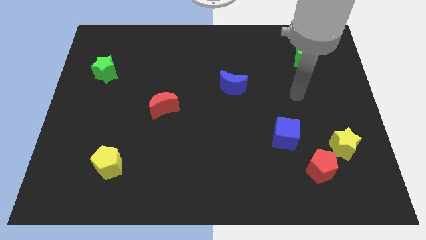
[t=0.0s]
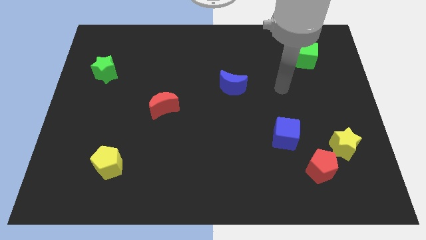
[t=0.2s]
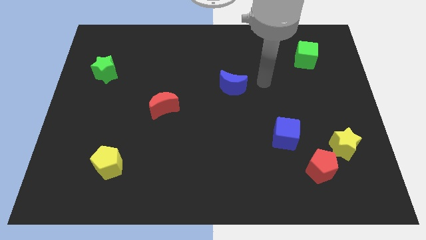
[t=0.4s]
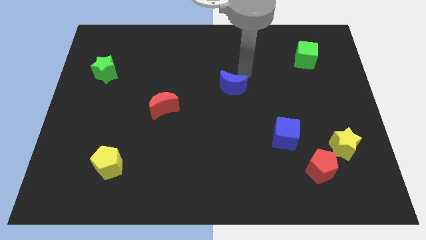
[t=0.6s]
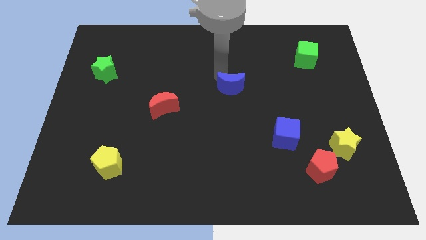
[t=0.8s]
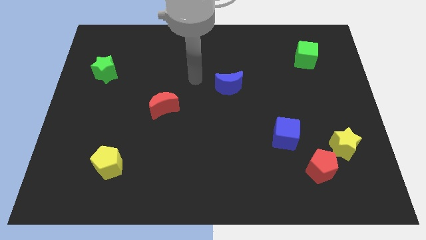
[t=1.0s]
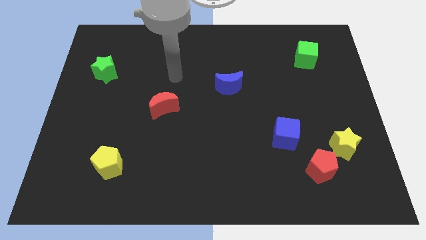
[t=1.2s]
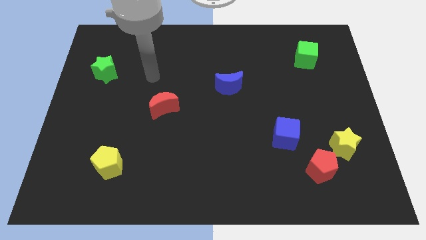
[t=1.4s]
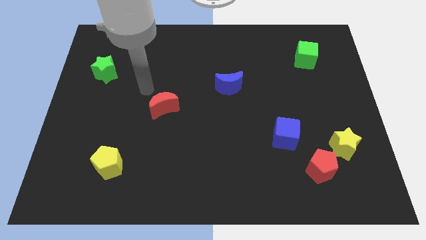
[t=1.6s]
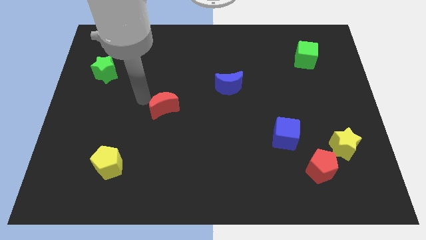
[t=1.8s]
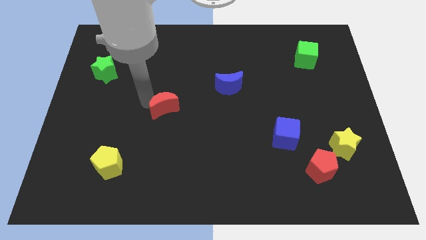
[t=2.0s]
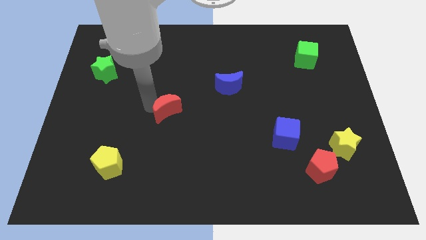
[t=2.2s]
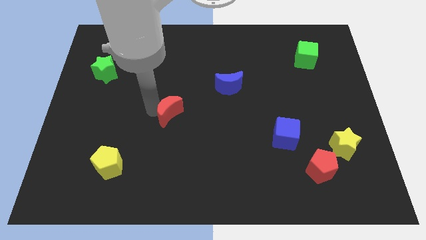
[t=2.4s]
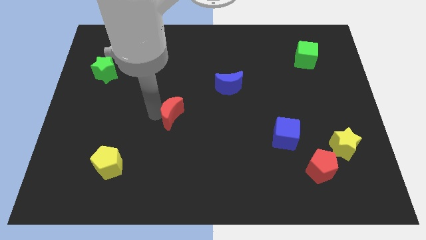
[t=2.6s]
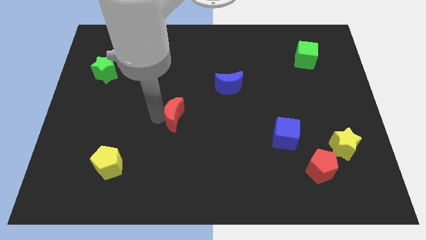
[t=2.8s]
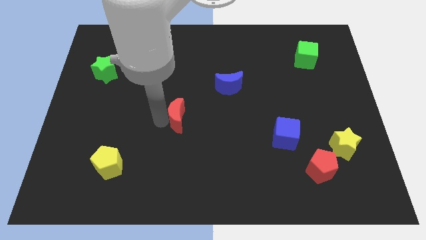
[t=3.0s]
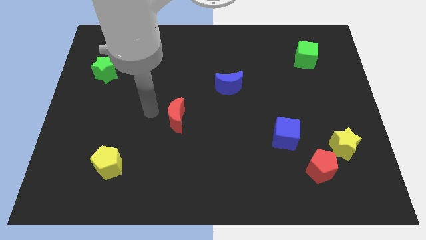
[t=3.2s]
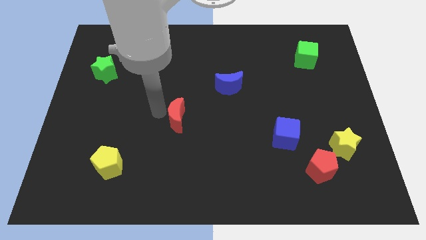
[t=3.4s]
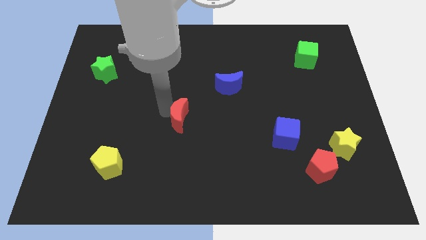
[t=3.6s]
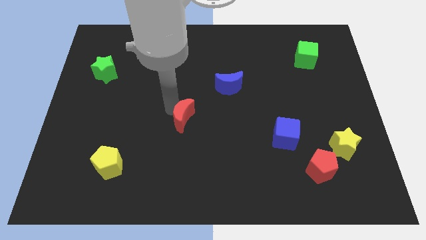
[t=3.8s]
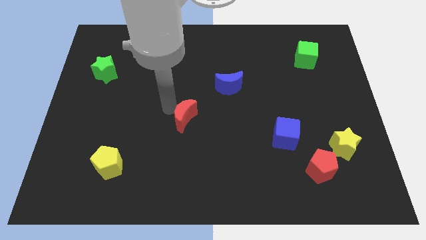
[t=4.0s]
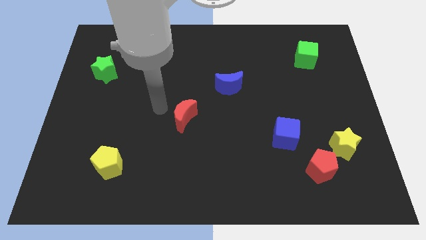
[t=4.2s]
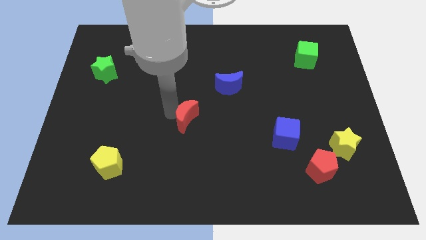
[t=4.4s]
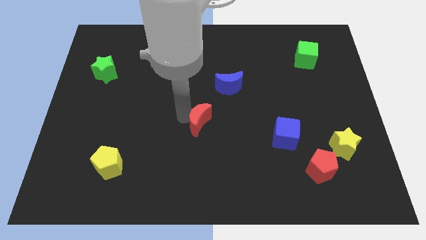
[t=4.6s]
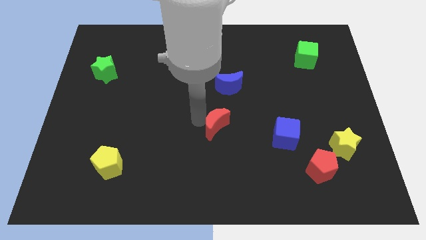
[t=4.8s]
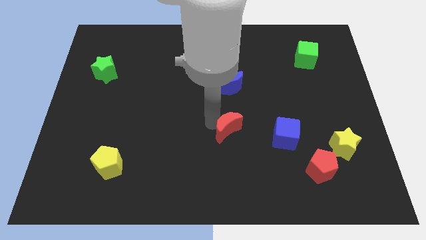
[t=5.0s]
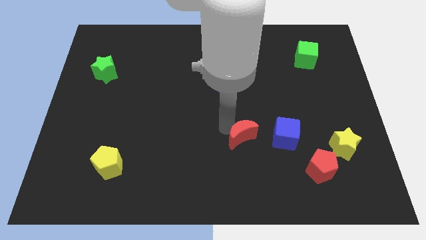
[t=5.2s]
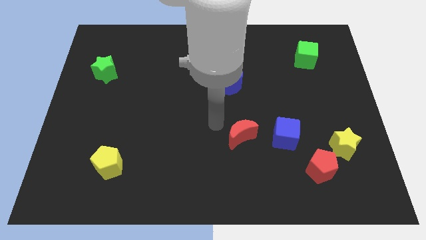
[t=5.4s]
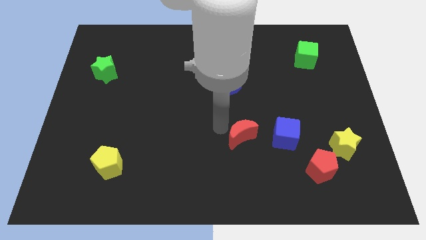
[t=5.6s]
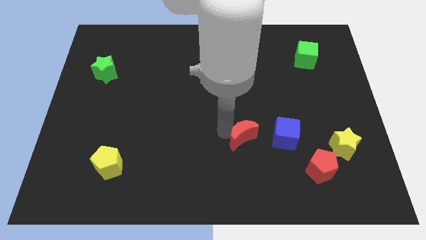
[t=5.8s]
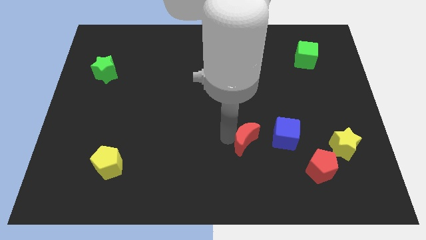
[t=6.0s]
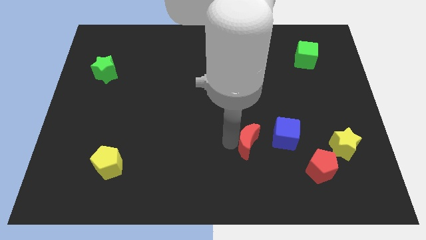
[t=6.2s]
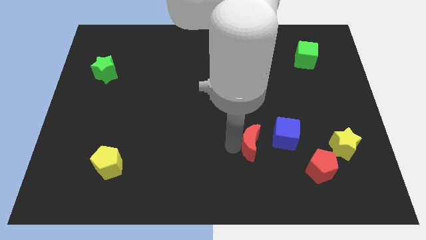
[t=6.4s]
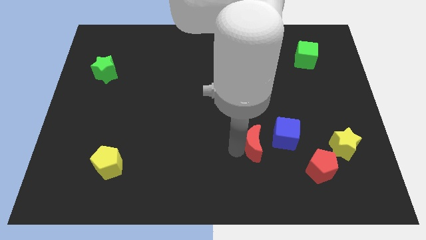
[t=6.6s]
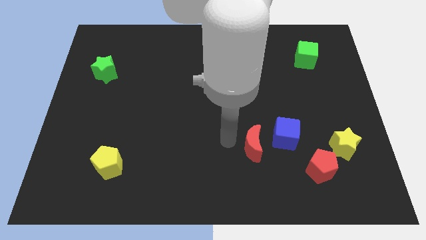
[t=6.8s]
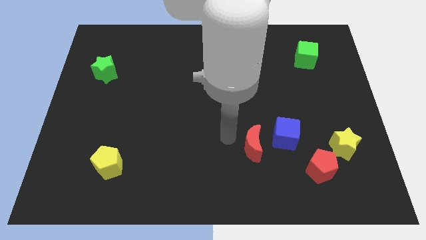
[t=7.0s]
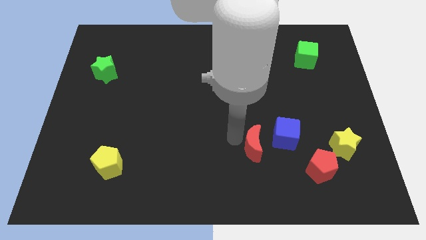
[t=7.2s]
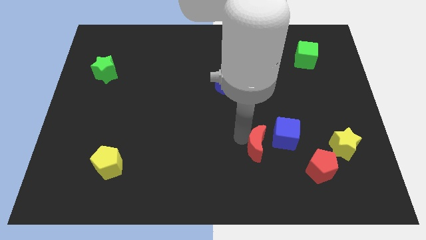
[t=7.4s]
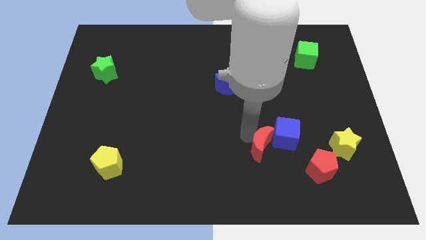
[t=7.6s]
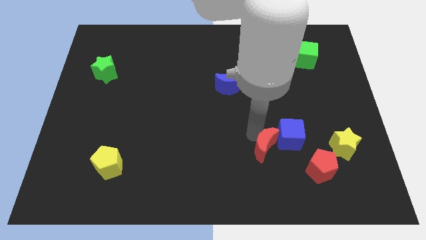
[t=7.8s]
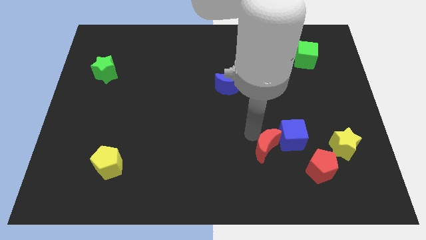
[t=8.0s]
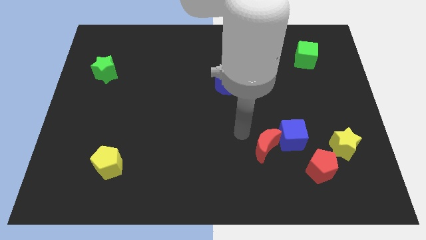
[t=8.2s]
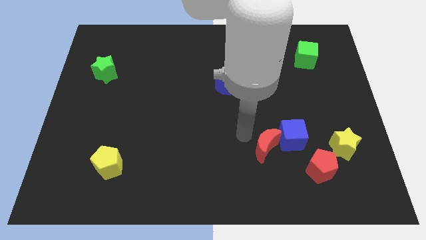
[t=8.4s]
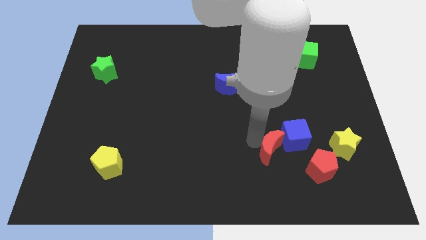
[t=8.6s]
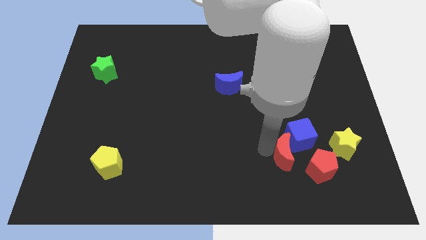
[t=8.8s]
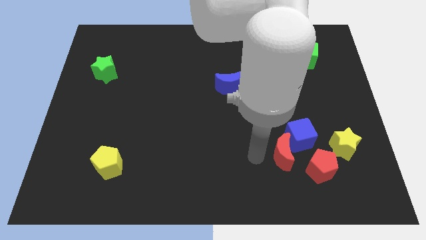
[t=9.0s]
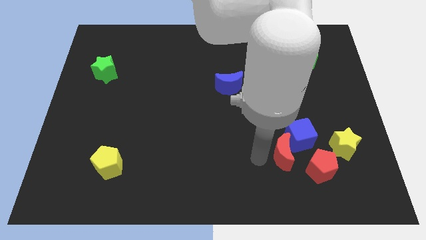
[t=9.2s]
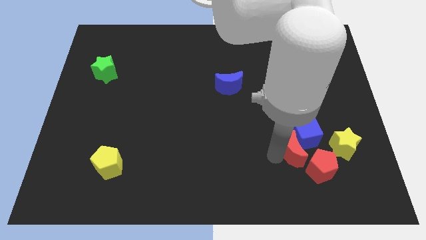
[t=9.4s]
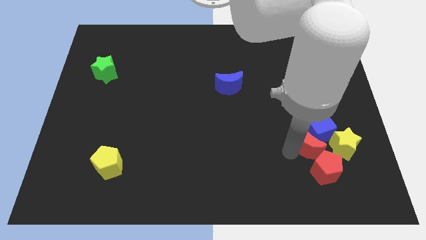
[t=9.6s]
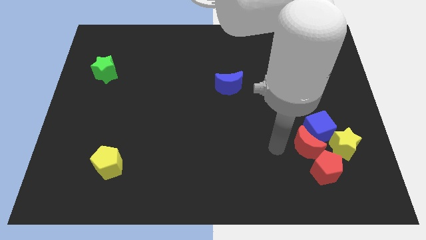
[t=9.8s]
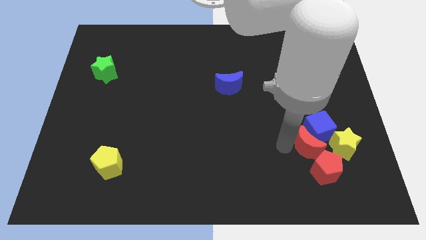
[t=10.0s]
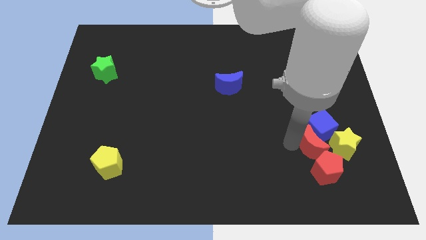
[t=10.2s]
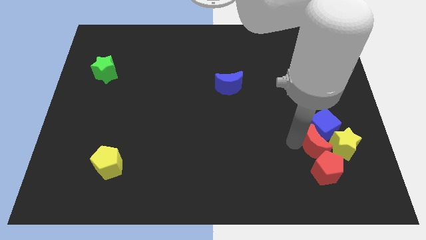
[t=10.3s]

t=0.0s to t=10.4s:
put the red moon towards the yellow star

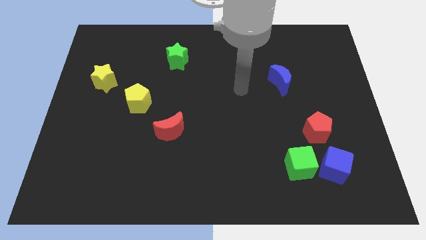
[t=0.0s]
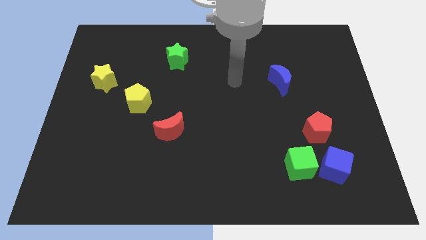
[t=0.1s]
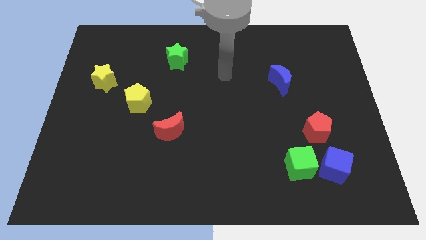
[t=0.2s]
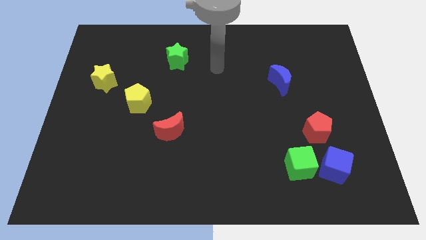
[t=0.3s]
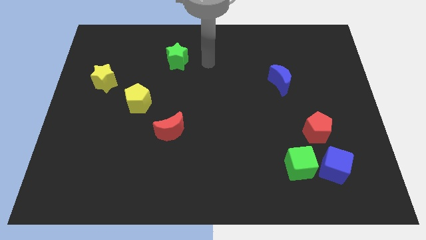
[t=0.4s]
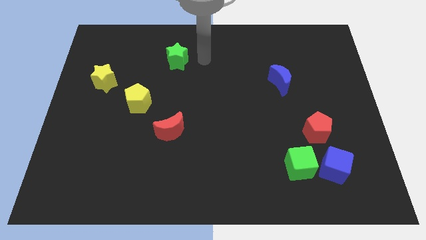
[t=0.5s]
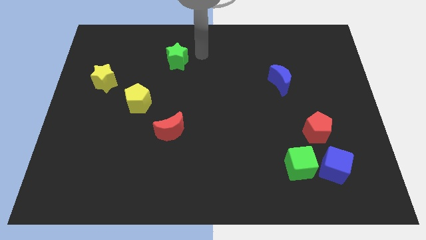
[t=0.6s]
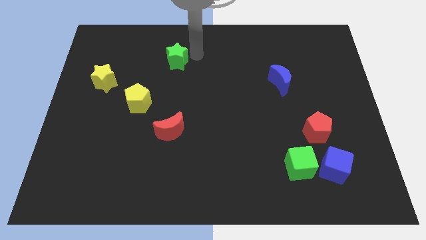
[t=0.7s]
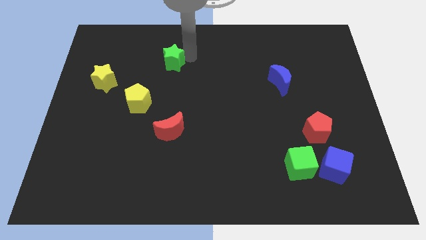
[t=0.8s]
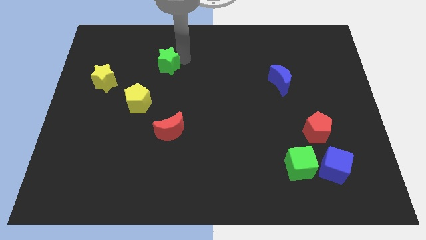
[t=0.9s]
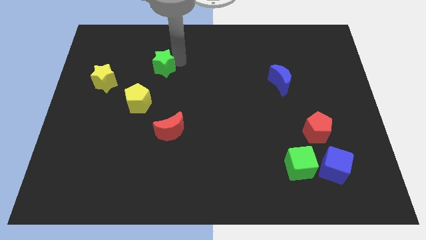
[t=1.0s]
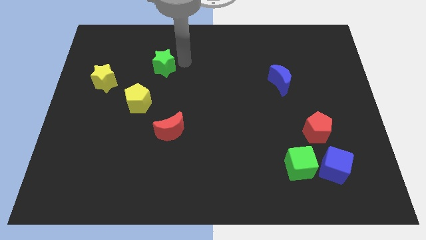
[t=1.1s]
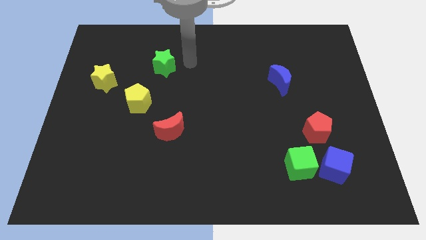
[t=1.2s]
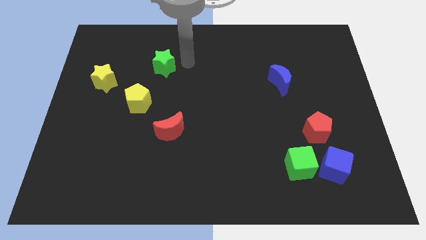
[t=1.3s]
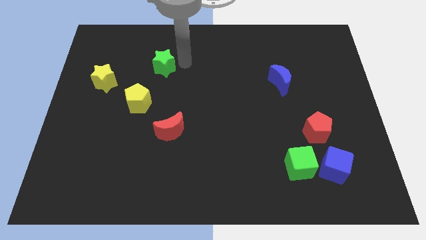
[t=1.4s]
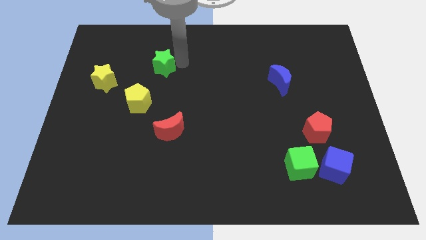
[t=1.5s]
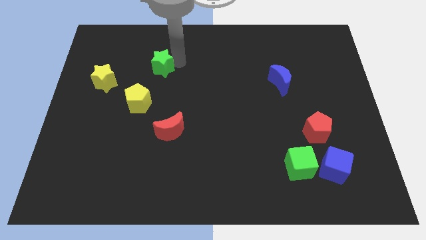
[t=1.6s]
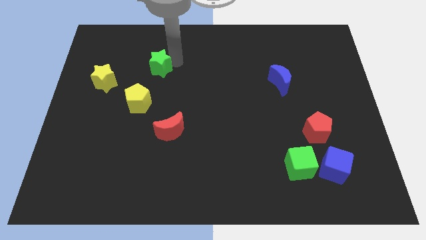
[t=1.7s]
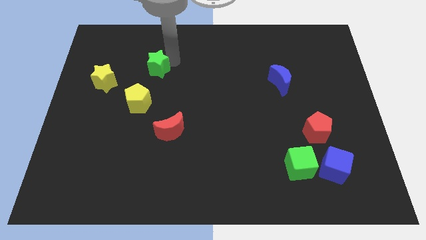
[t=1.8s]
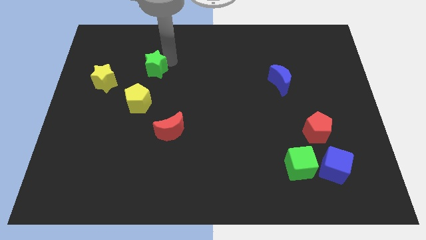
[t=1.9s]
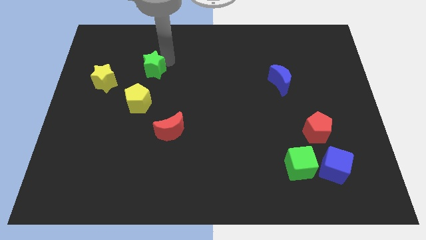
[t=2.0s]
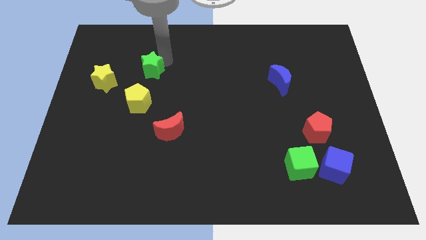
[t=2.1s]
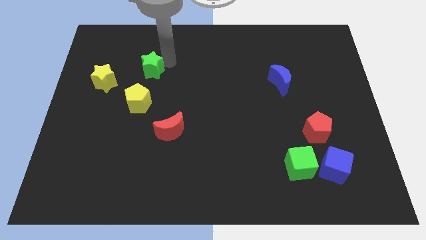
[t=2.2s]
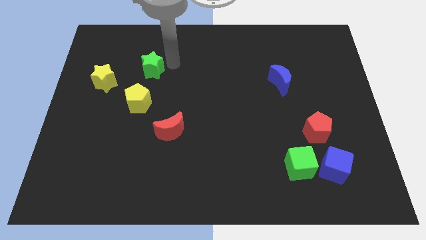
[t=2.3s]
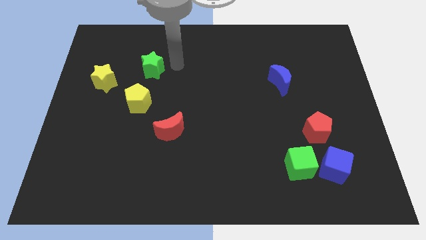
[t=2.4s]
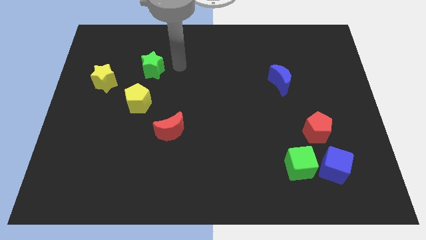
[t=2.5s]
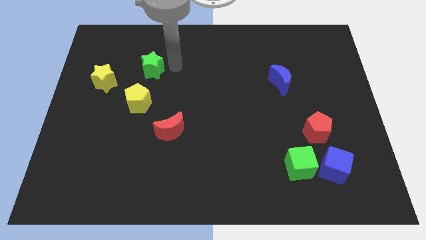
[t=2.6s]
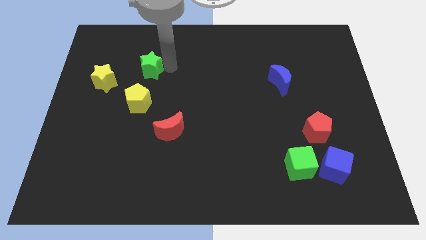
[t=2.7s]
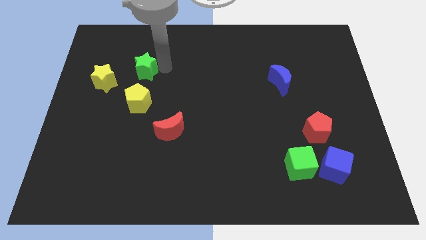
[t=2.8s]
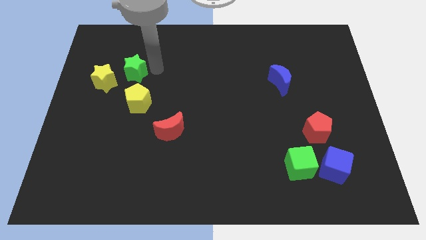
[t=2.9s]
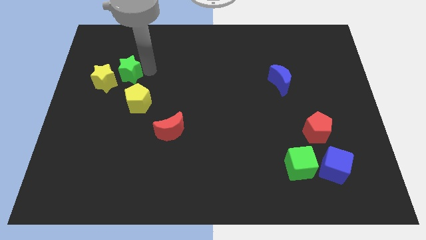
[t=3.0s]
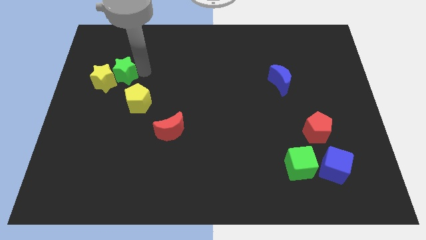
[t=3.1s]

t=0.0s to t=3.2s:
push the green star close to the yellow star
